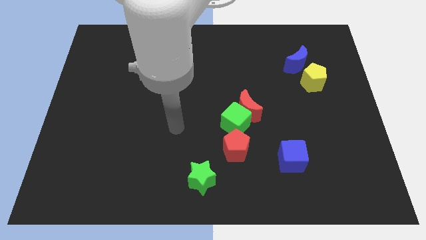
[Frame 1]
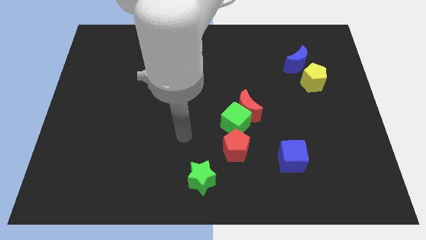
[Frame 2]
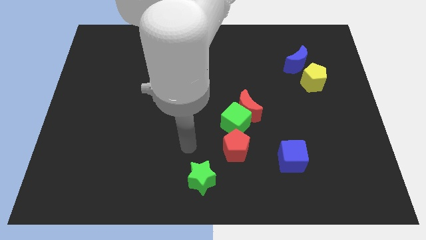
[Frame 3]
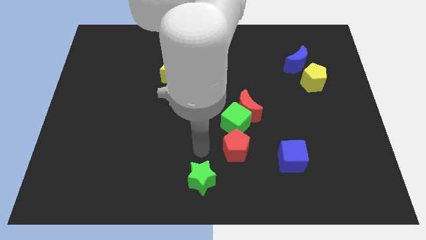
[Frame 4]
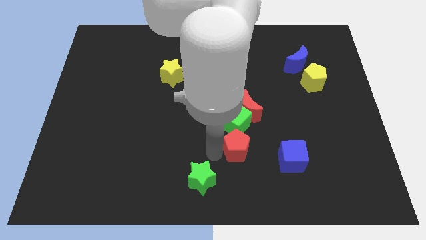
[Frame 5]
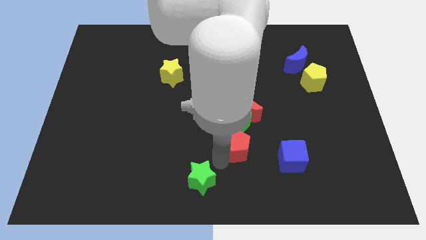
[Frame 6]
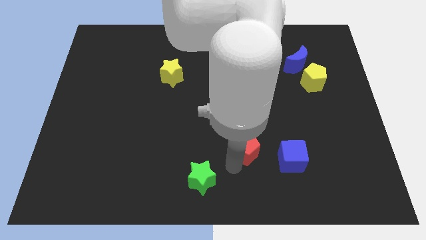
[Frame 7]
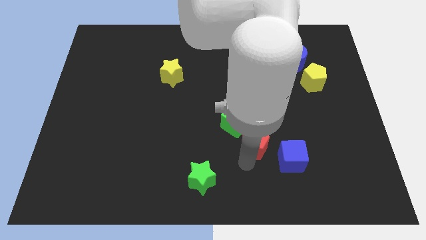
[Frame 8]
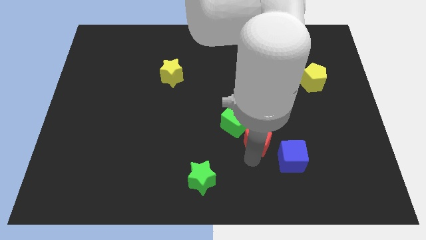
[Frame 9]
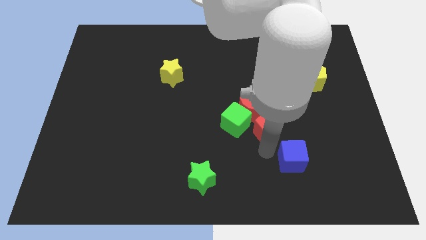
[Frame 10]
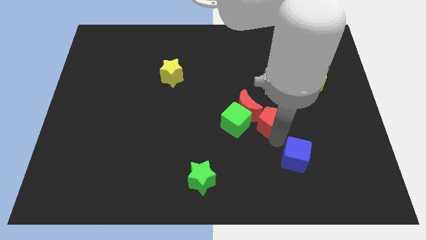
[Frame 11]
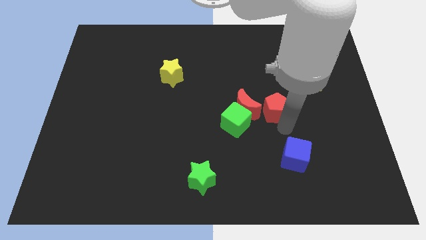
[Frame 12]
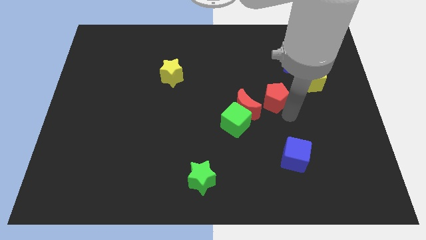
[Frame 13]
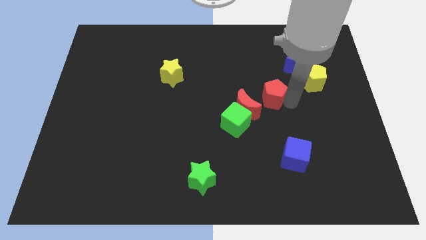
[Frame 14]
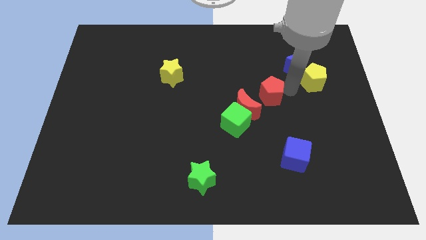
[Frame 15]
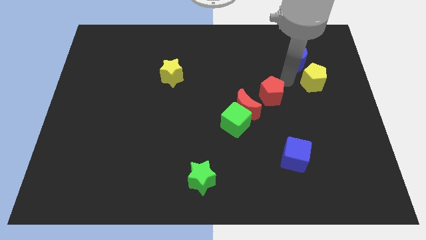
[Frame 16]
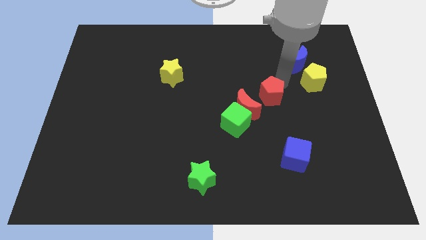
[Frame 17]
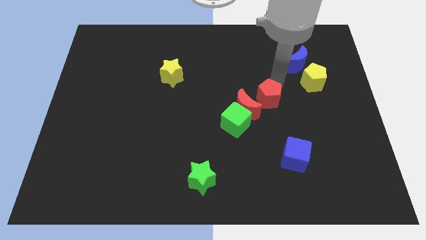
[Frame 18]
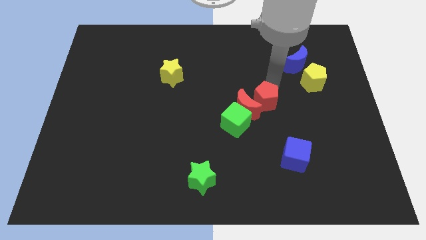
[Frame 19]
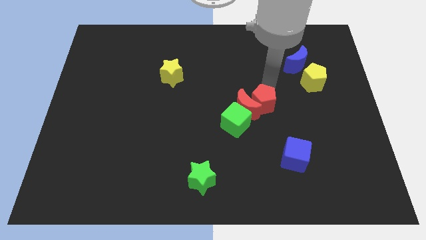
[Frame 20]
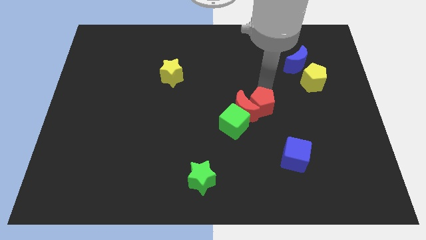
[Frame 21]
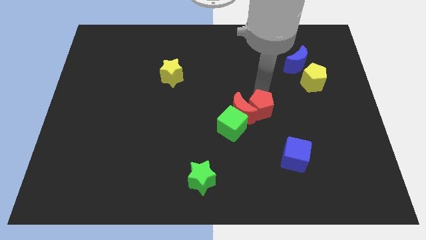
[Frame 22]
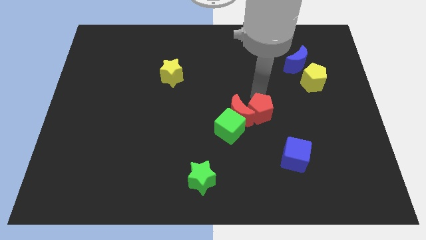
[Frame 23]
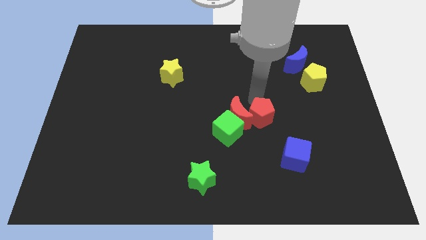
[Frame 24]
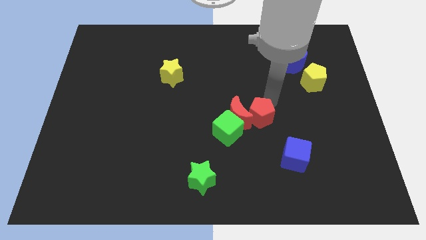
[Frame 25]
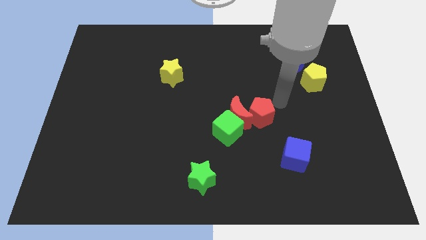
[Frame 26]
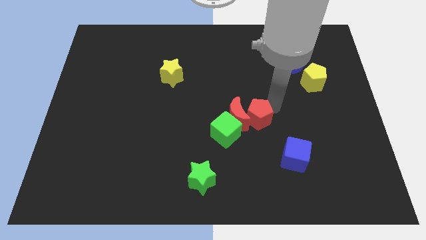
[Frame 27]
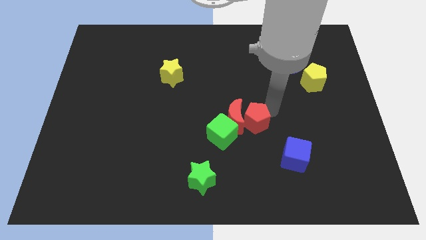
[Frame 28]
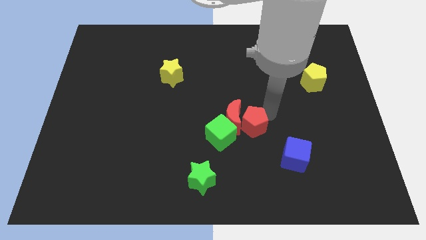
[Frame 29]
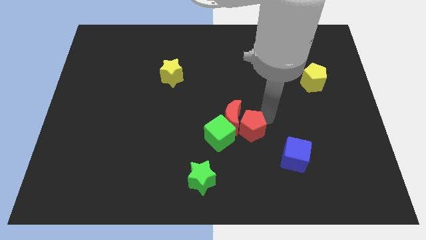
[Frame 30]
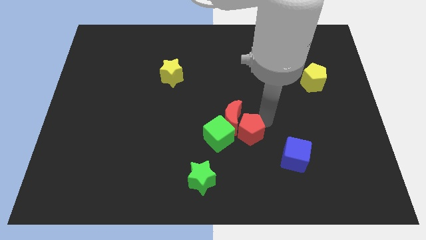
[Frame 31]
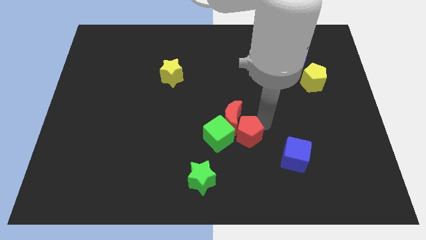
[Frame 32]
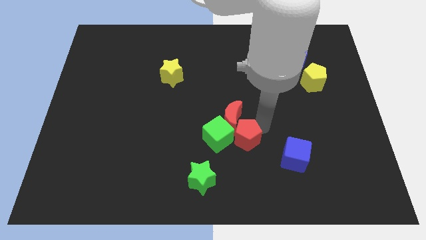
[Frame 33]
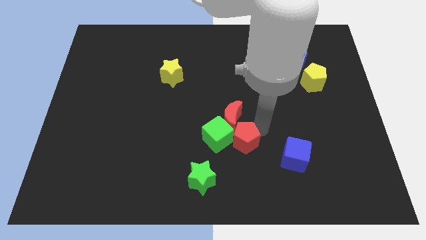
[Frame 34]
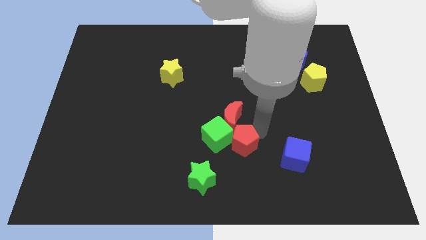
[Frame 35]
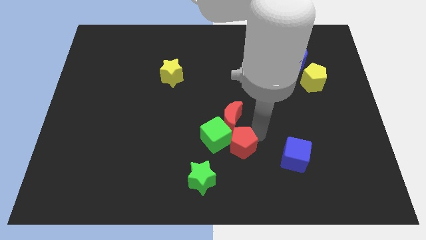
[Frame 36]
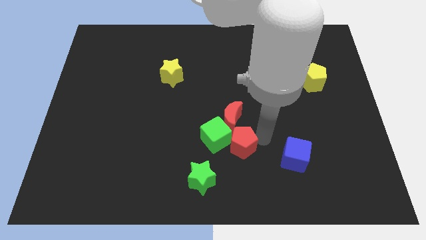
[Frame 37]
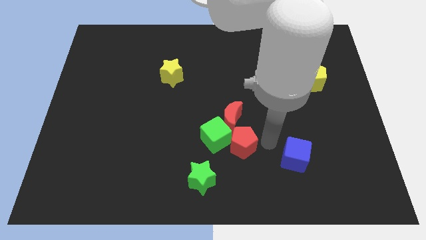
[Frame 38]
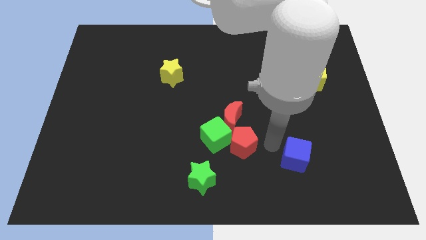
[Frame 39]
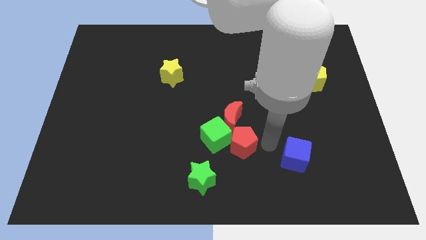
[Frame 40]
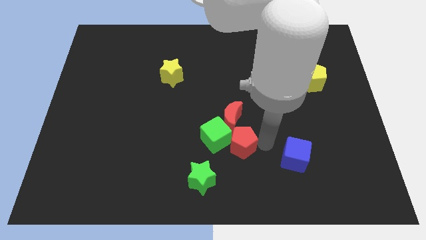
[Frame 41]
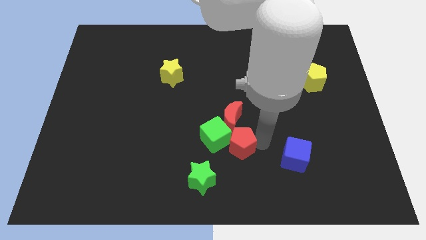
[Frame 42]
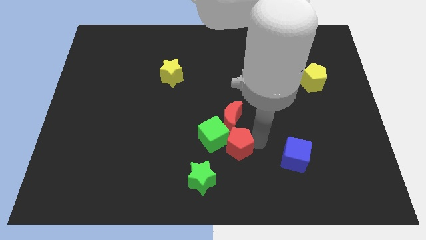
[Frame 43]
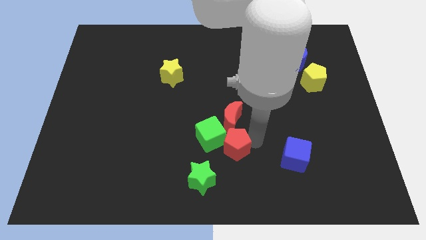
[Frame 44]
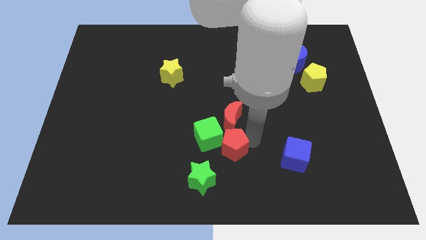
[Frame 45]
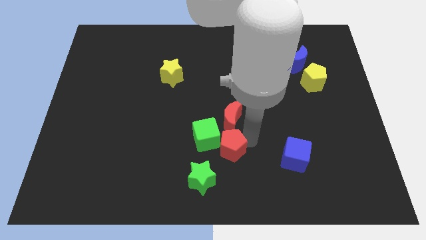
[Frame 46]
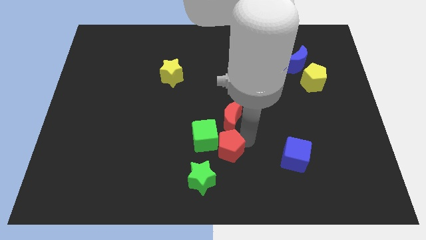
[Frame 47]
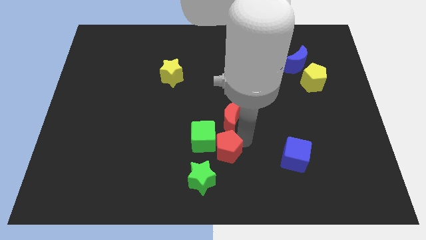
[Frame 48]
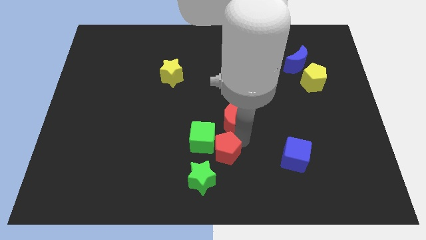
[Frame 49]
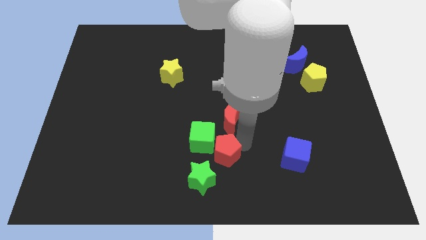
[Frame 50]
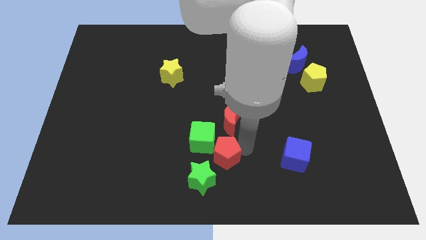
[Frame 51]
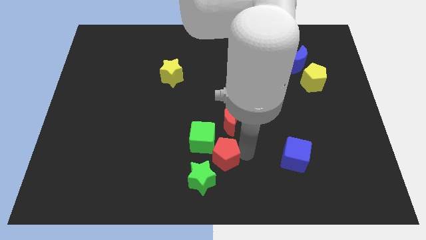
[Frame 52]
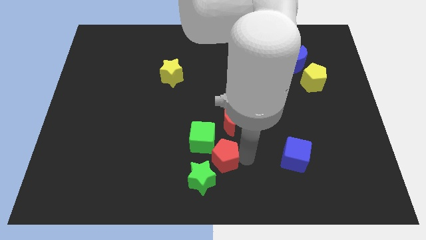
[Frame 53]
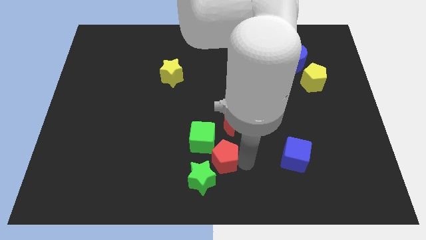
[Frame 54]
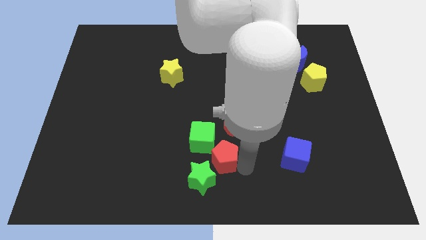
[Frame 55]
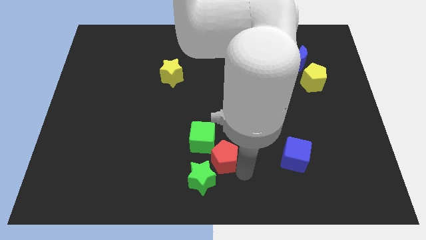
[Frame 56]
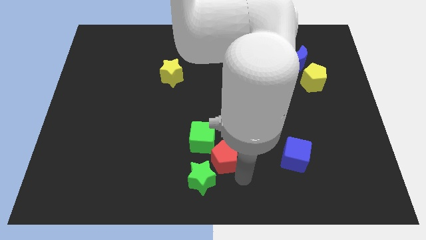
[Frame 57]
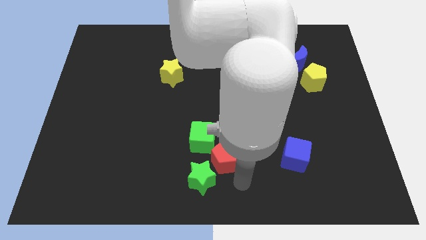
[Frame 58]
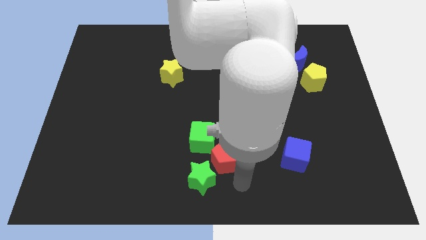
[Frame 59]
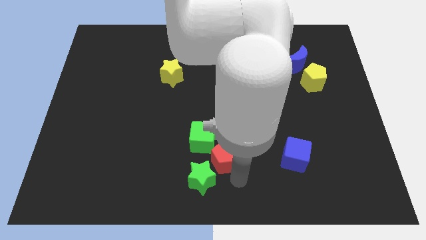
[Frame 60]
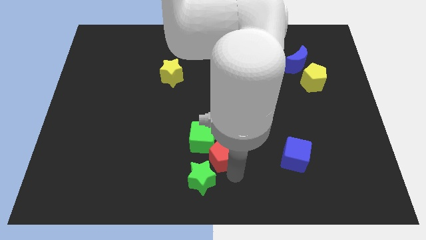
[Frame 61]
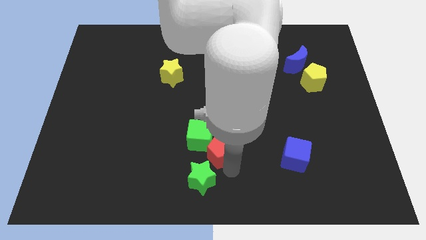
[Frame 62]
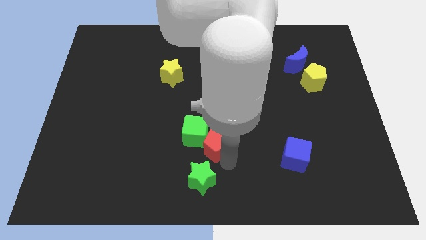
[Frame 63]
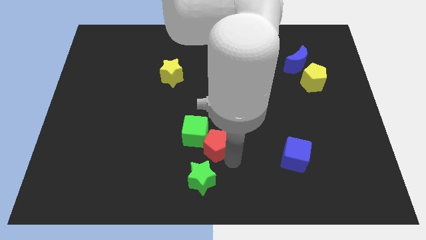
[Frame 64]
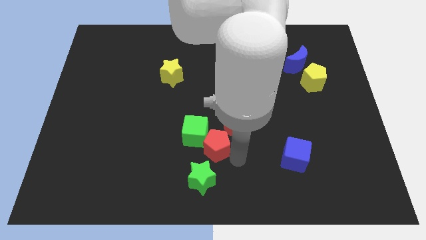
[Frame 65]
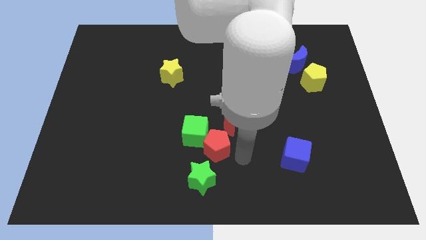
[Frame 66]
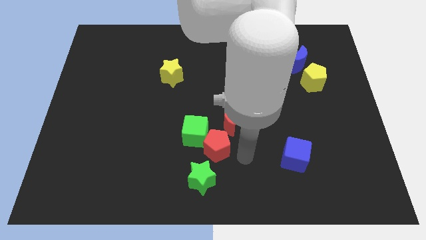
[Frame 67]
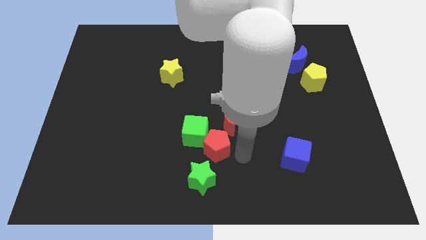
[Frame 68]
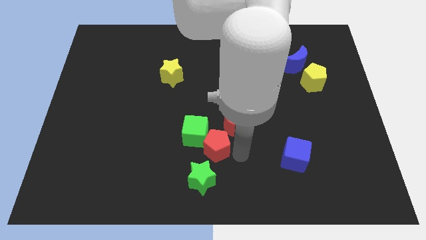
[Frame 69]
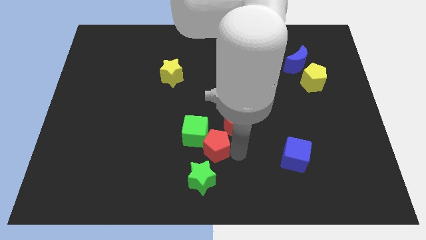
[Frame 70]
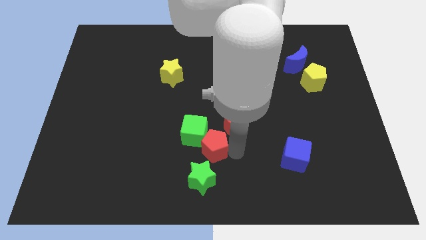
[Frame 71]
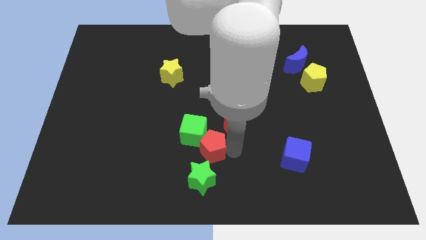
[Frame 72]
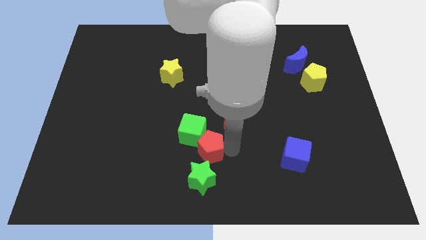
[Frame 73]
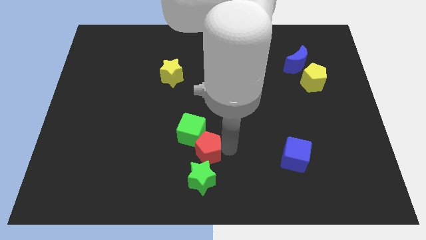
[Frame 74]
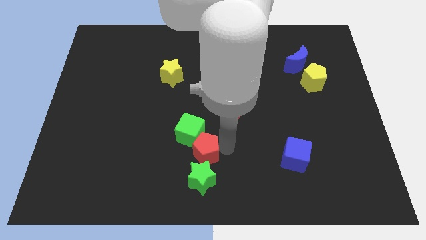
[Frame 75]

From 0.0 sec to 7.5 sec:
slightly push the red pentagon to the left
